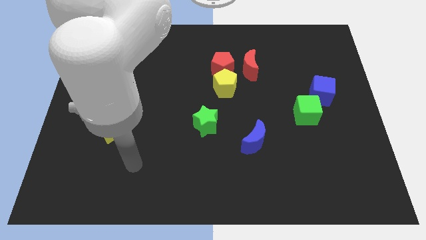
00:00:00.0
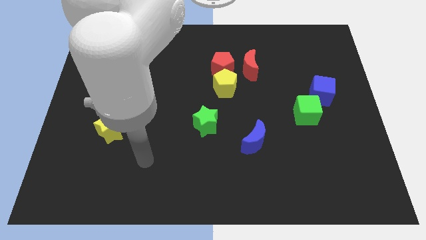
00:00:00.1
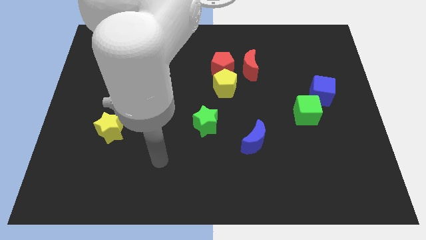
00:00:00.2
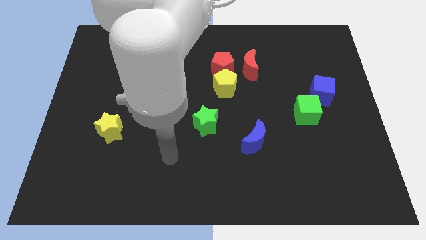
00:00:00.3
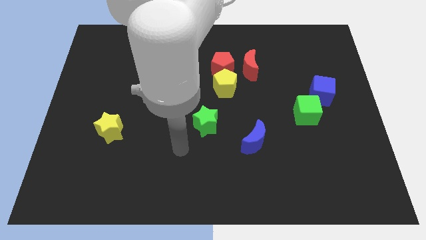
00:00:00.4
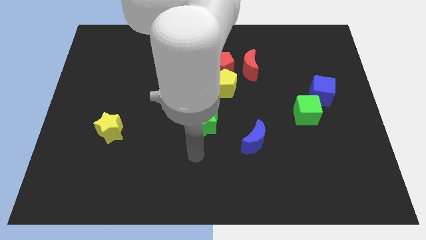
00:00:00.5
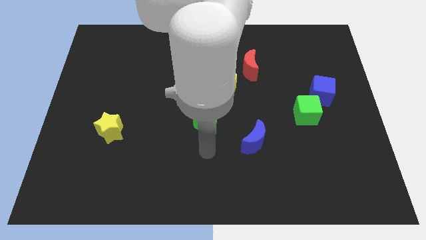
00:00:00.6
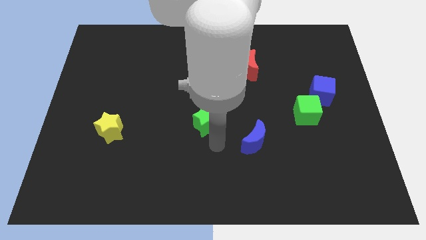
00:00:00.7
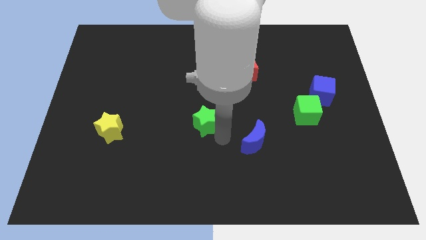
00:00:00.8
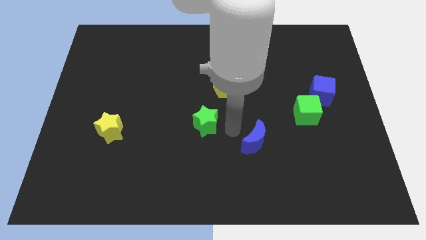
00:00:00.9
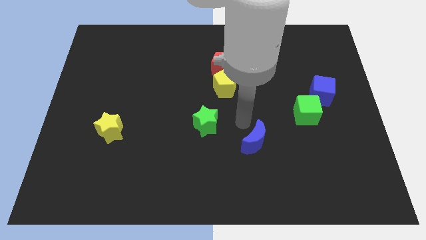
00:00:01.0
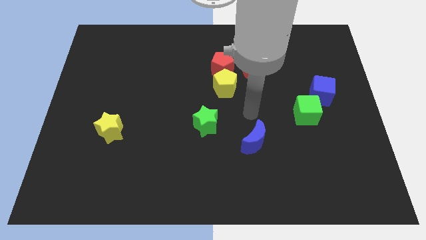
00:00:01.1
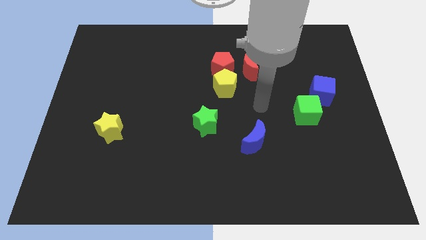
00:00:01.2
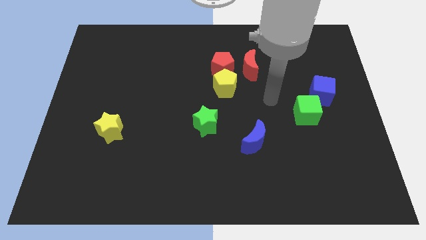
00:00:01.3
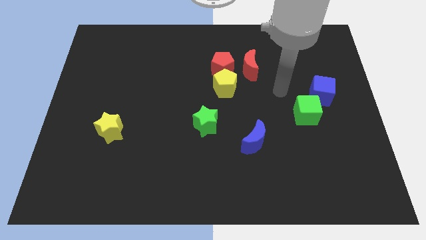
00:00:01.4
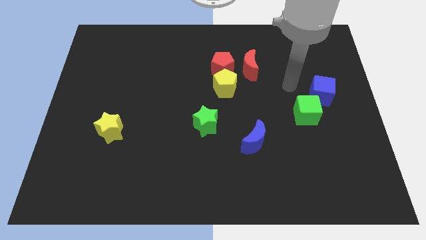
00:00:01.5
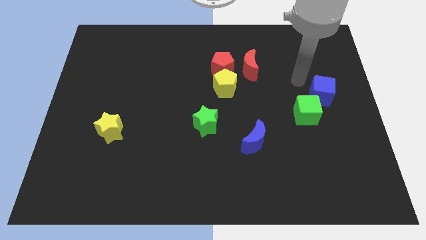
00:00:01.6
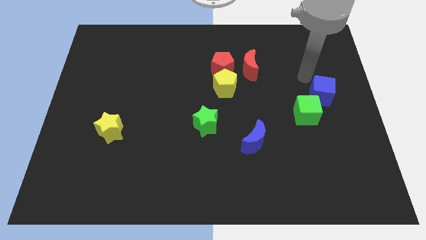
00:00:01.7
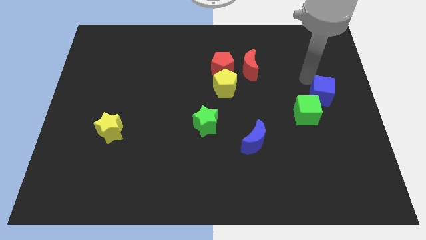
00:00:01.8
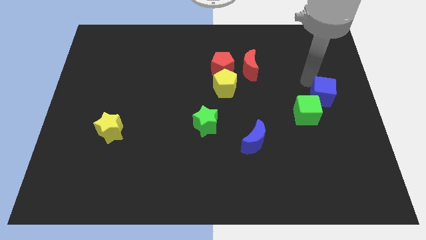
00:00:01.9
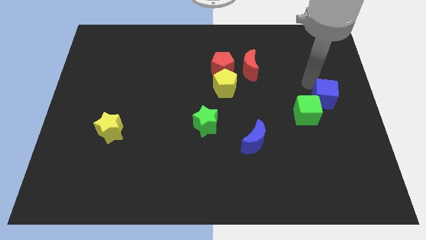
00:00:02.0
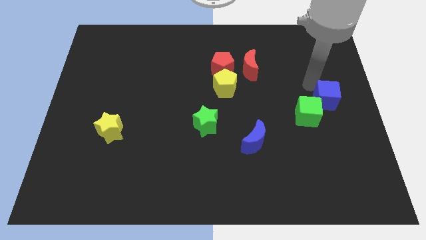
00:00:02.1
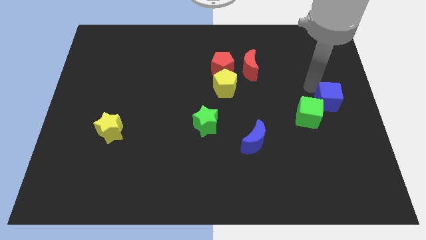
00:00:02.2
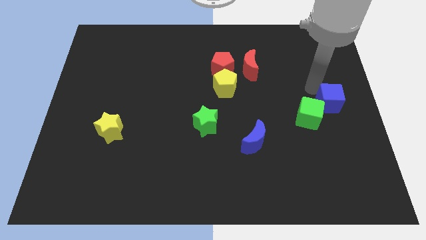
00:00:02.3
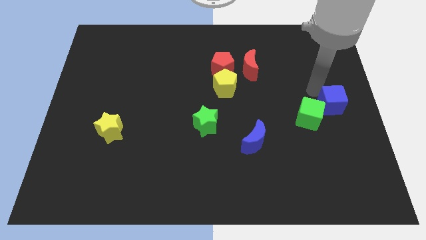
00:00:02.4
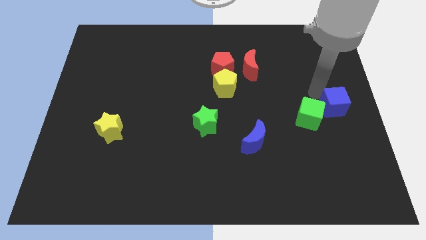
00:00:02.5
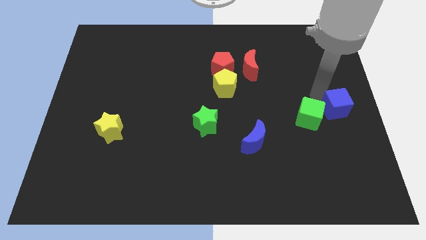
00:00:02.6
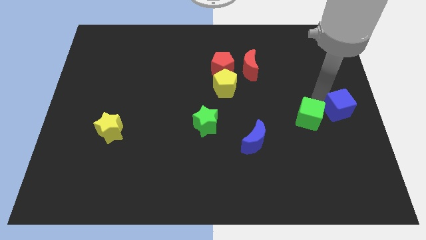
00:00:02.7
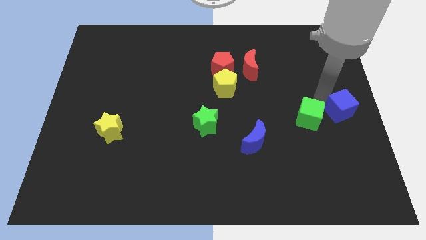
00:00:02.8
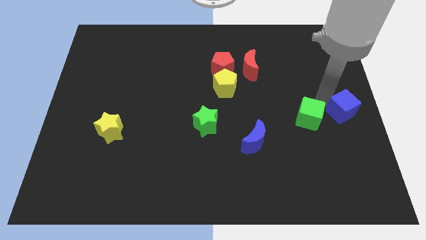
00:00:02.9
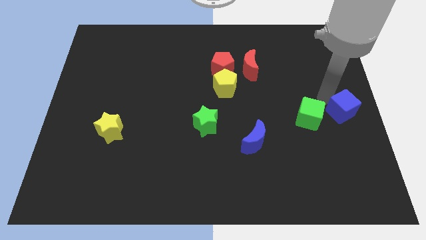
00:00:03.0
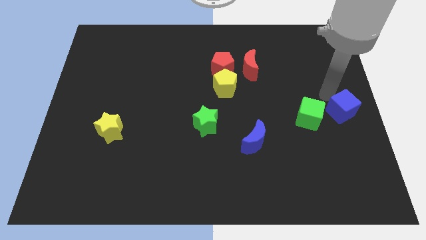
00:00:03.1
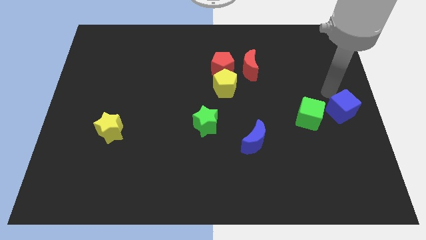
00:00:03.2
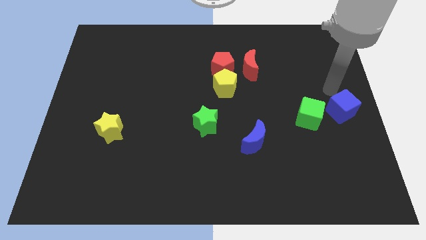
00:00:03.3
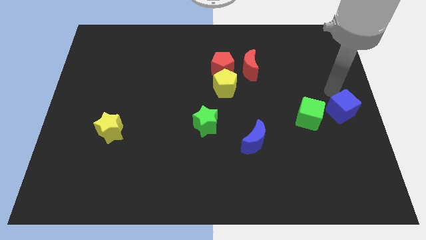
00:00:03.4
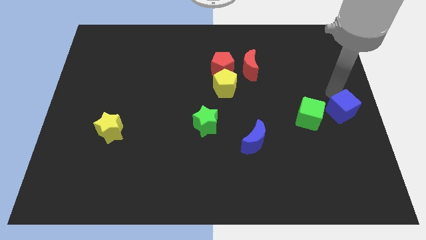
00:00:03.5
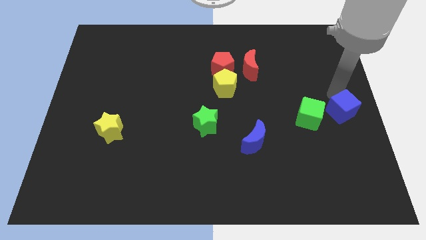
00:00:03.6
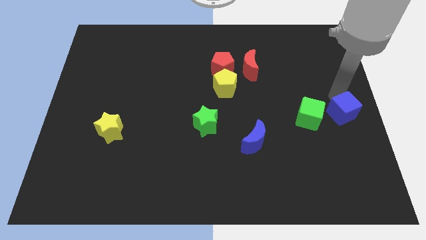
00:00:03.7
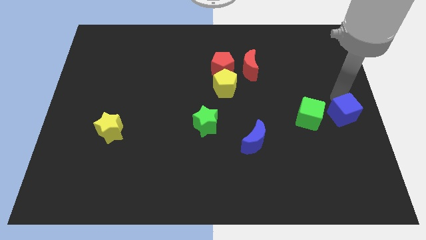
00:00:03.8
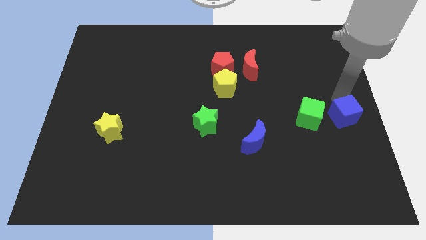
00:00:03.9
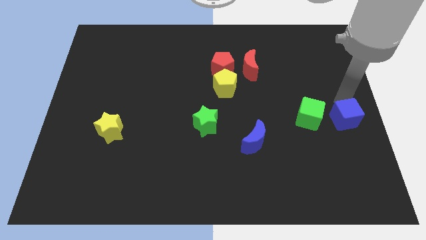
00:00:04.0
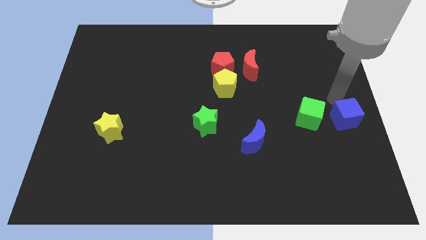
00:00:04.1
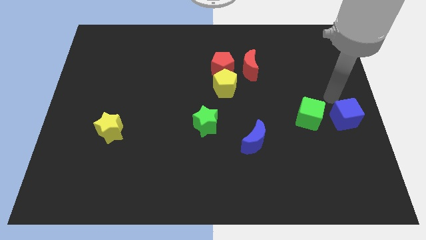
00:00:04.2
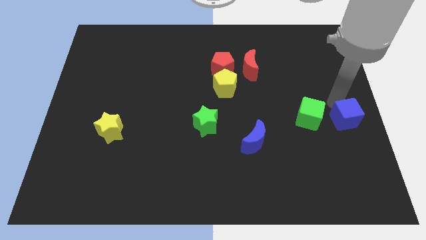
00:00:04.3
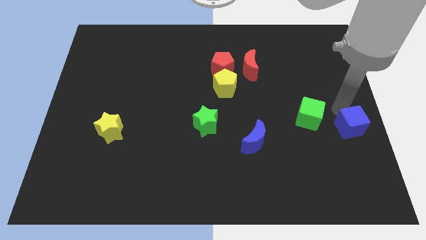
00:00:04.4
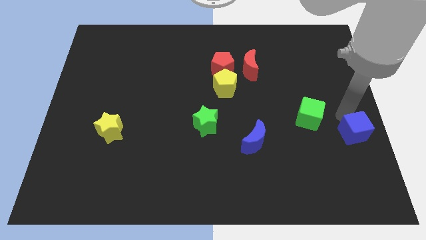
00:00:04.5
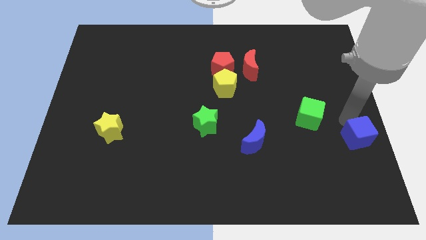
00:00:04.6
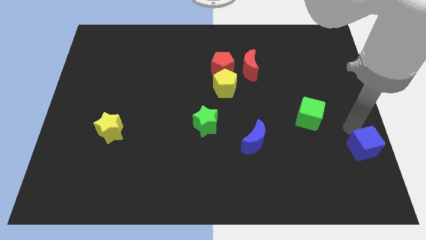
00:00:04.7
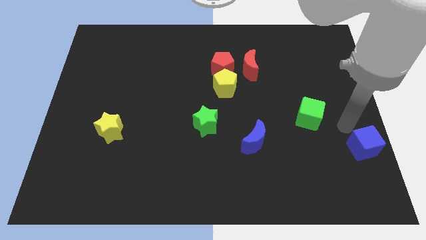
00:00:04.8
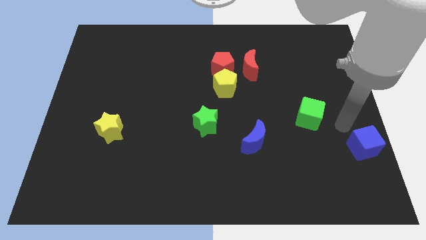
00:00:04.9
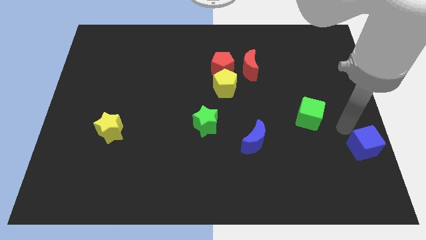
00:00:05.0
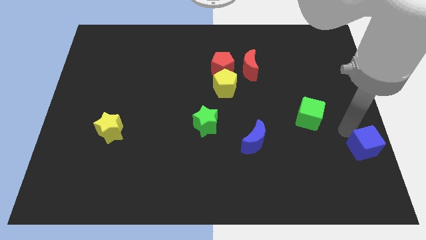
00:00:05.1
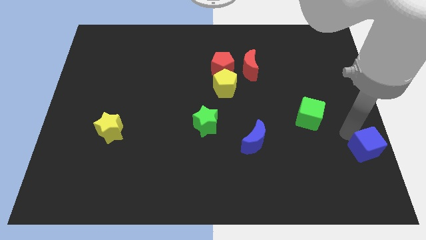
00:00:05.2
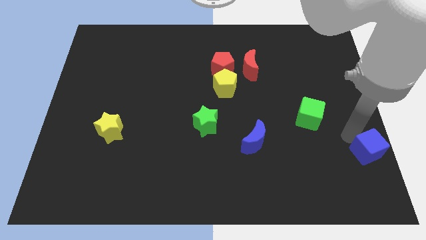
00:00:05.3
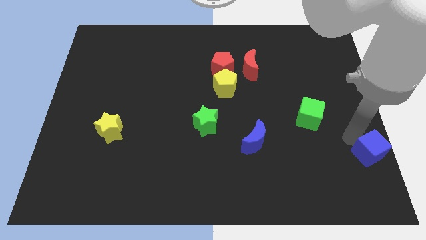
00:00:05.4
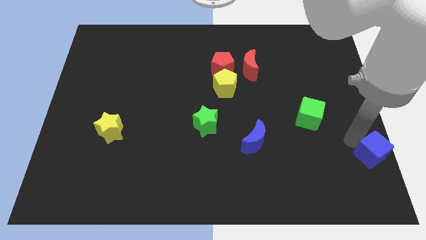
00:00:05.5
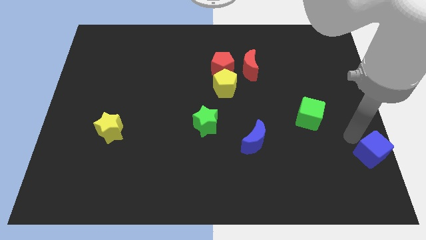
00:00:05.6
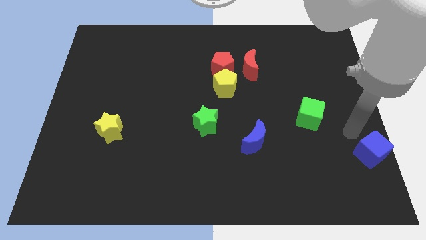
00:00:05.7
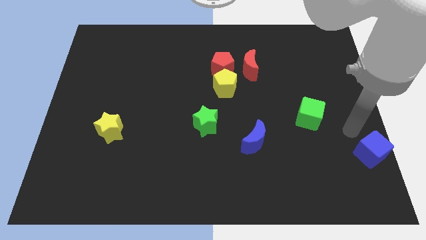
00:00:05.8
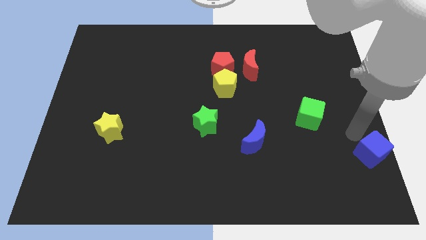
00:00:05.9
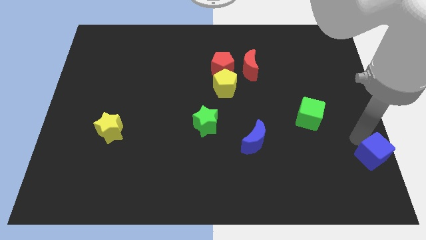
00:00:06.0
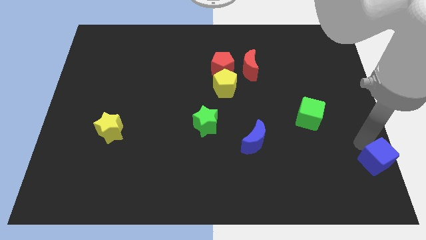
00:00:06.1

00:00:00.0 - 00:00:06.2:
put the blue cube to the bottom right corner

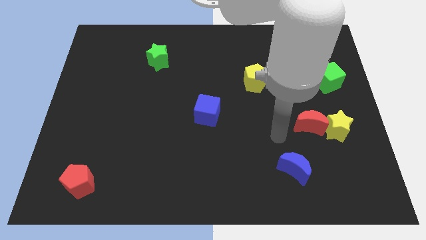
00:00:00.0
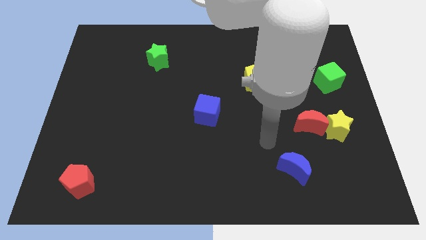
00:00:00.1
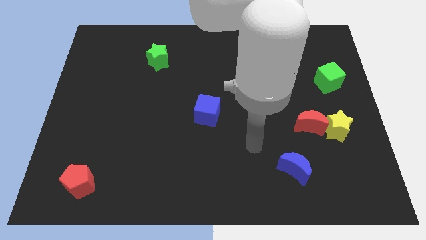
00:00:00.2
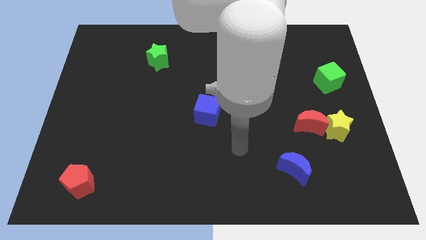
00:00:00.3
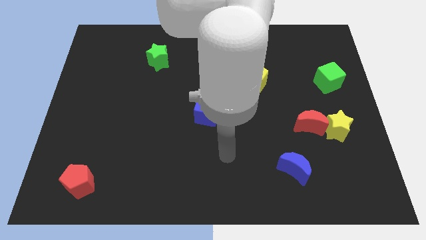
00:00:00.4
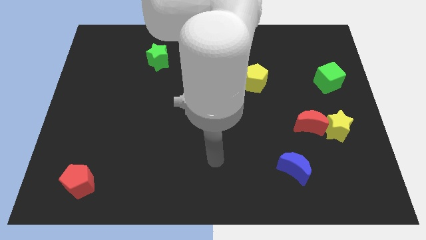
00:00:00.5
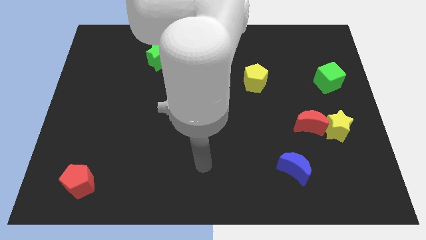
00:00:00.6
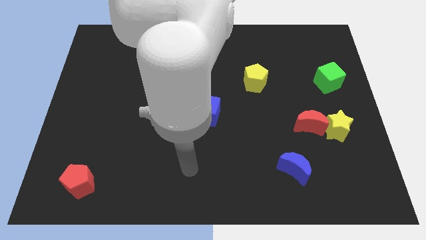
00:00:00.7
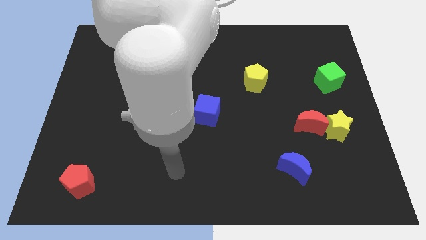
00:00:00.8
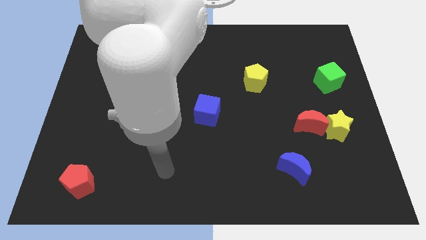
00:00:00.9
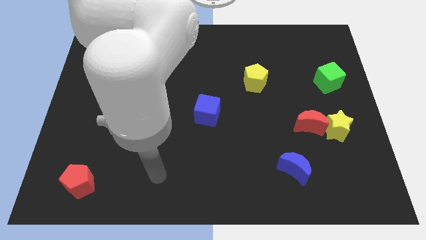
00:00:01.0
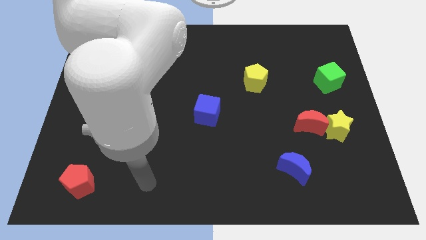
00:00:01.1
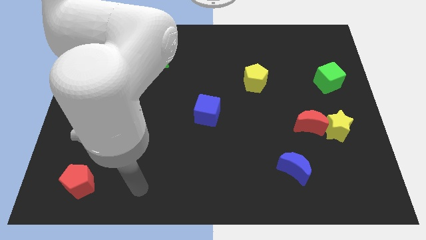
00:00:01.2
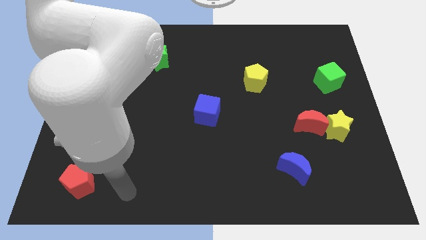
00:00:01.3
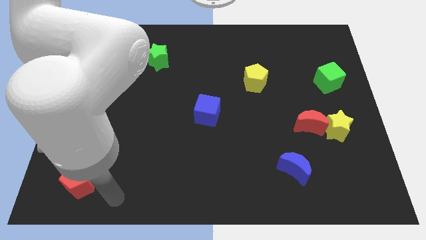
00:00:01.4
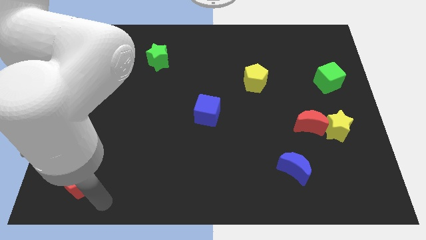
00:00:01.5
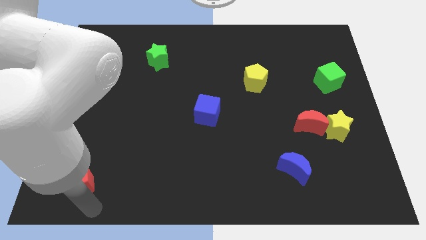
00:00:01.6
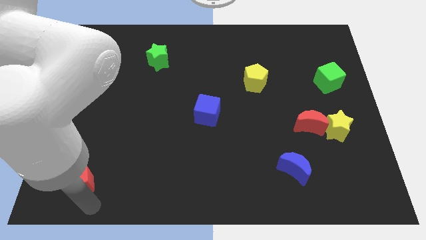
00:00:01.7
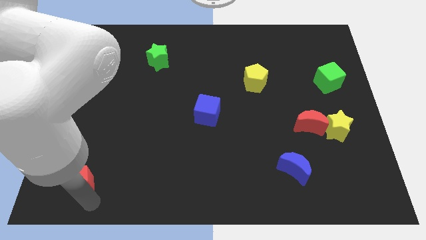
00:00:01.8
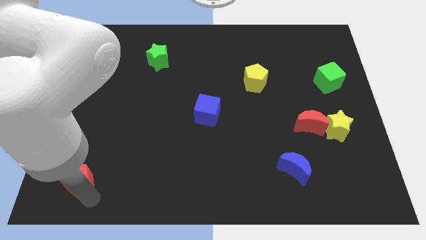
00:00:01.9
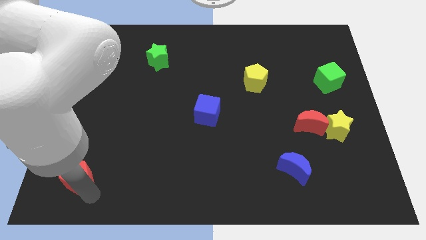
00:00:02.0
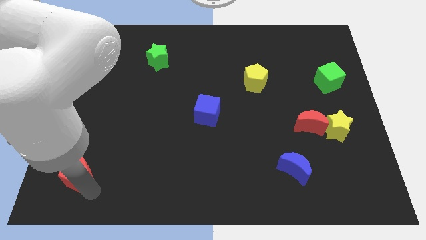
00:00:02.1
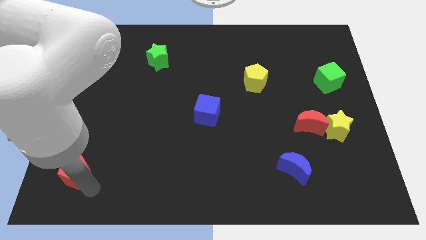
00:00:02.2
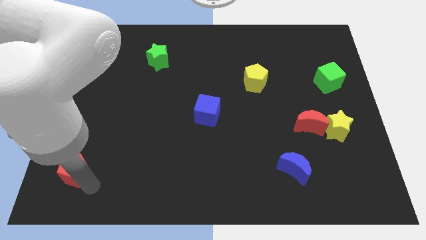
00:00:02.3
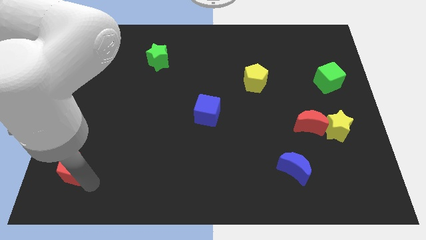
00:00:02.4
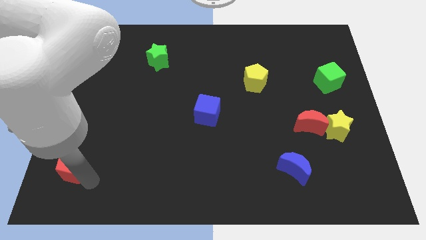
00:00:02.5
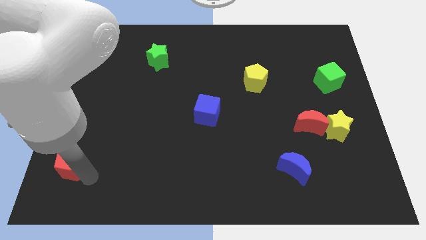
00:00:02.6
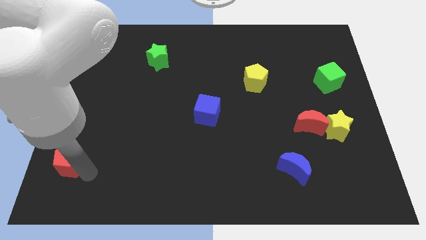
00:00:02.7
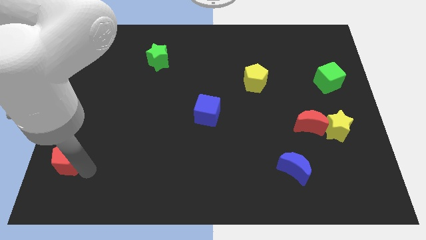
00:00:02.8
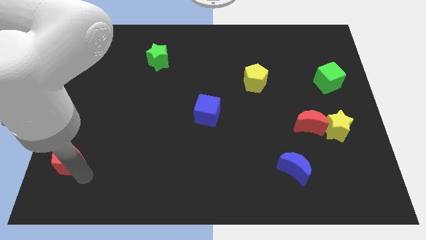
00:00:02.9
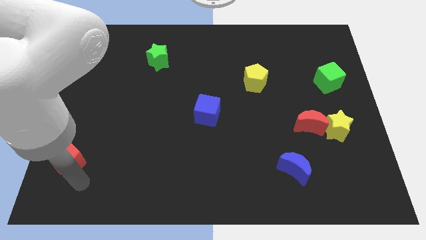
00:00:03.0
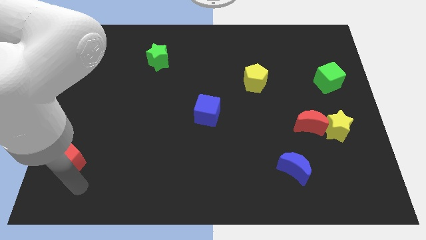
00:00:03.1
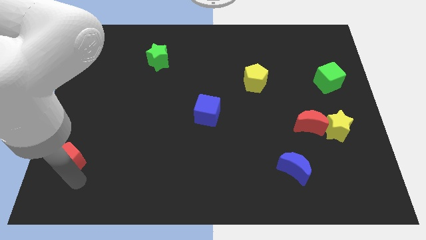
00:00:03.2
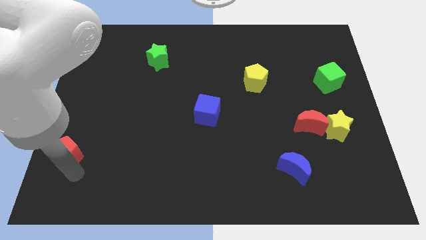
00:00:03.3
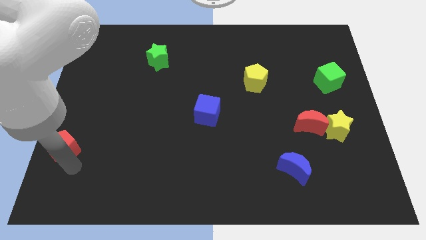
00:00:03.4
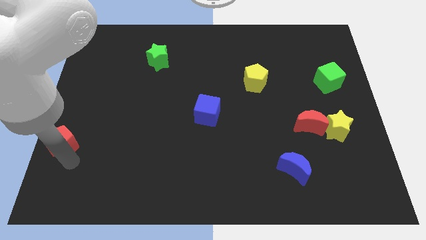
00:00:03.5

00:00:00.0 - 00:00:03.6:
slide the red pentagon to the left side
